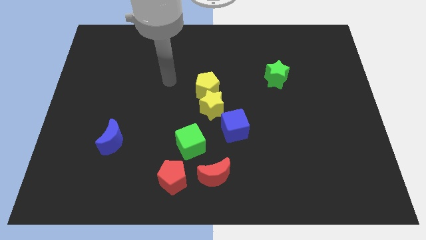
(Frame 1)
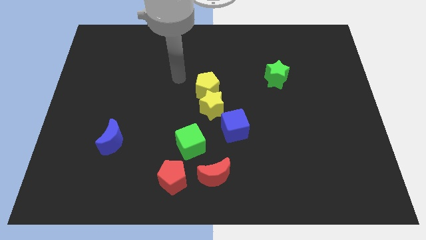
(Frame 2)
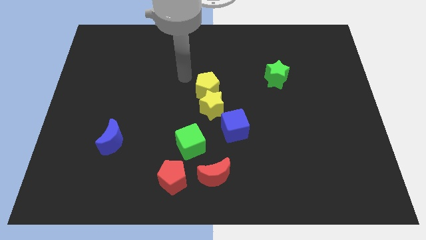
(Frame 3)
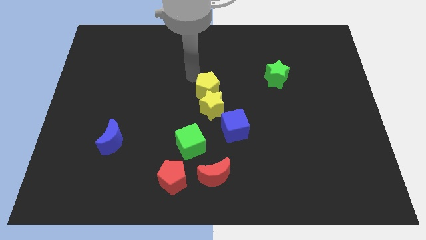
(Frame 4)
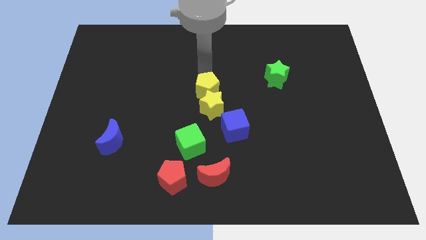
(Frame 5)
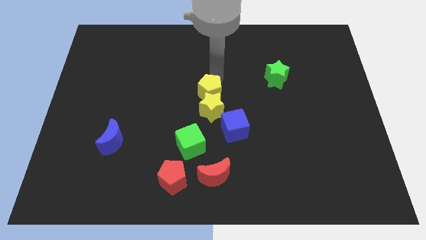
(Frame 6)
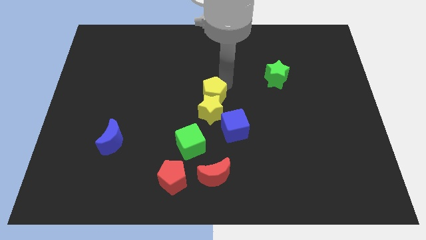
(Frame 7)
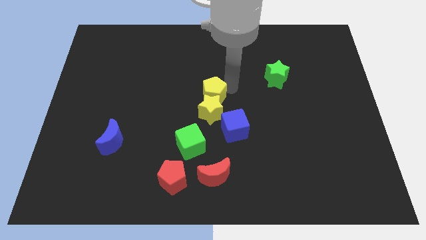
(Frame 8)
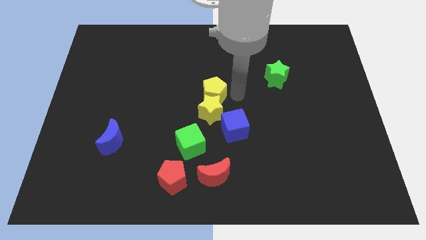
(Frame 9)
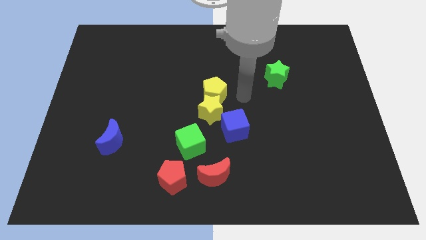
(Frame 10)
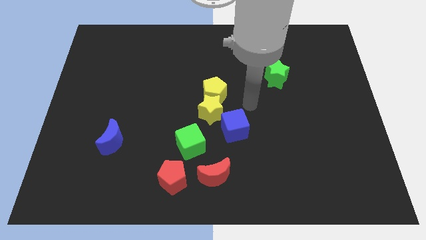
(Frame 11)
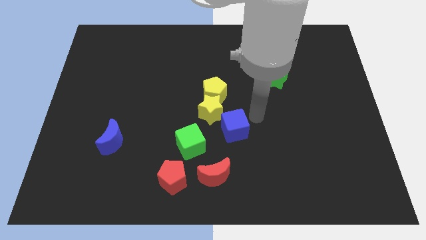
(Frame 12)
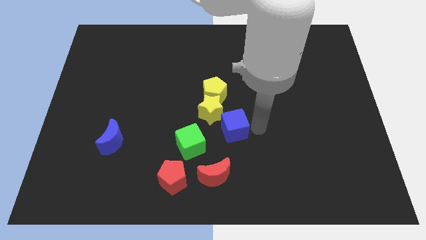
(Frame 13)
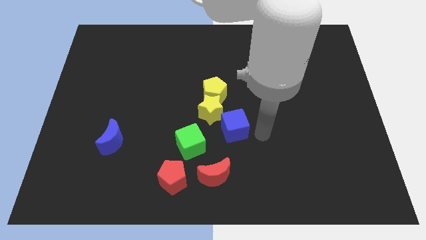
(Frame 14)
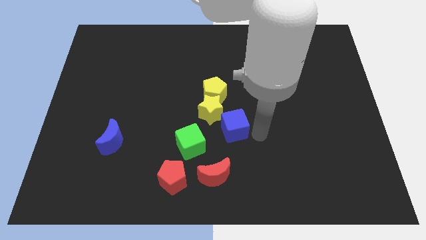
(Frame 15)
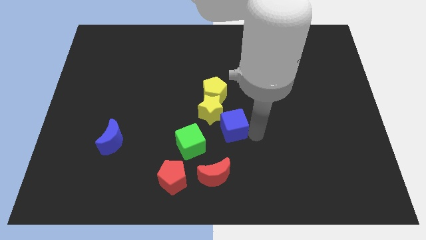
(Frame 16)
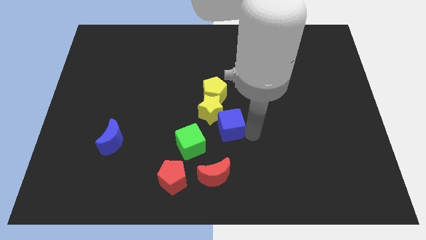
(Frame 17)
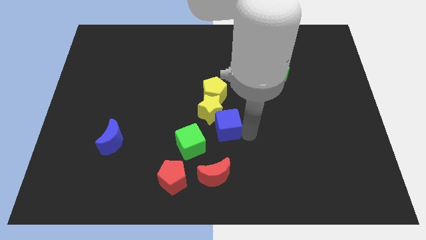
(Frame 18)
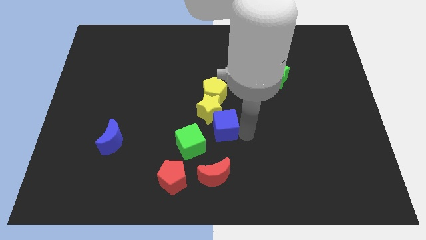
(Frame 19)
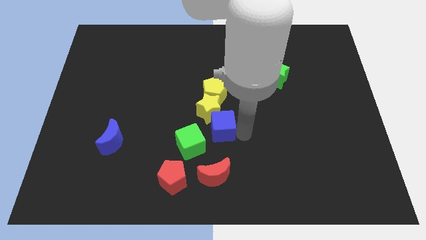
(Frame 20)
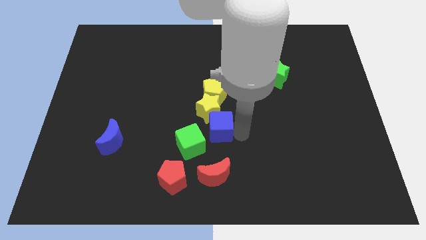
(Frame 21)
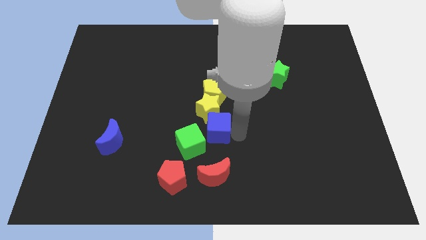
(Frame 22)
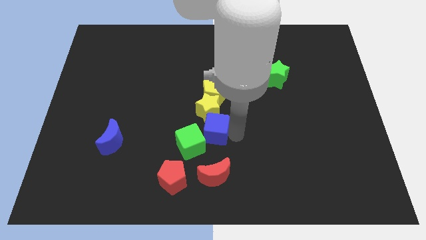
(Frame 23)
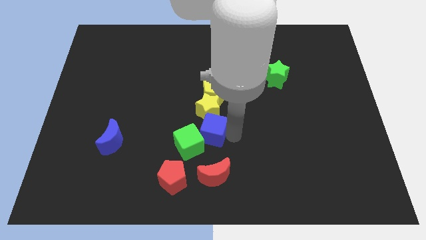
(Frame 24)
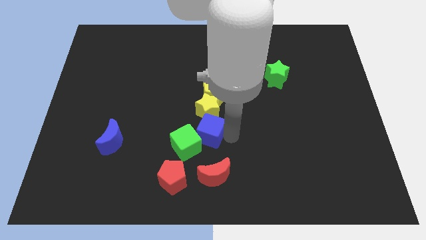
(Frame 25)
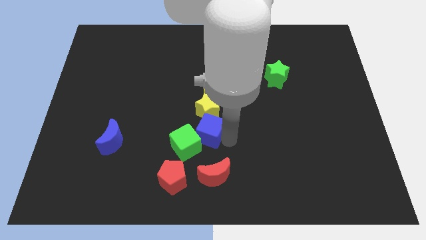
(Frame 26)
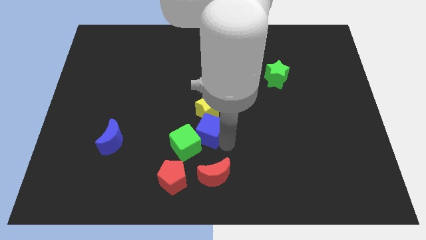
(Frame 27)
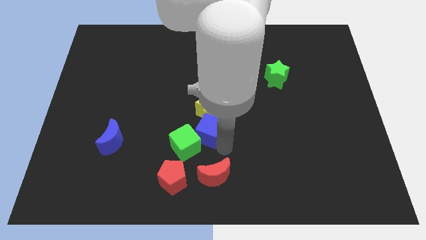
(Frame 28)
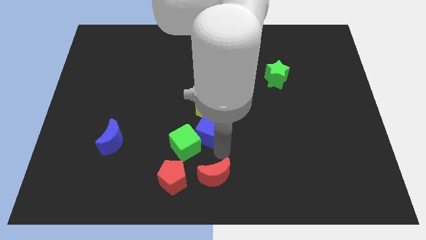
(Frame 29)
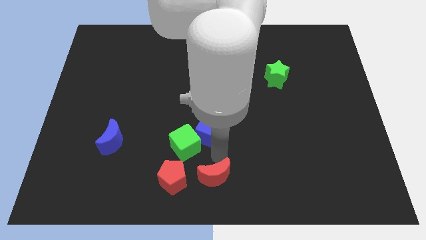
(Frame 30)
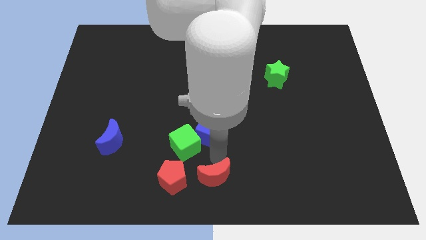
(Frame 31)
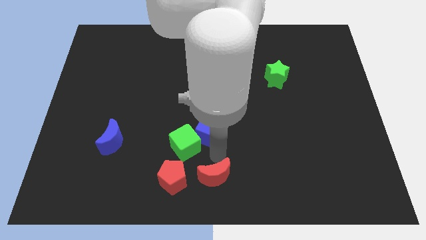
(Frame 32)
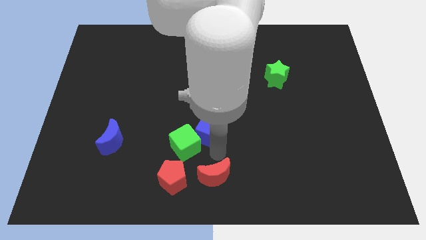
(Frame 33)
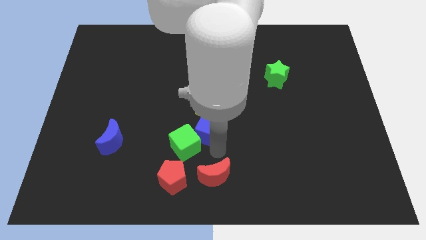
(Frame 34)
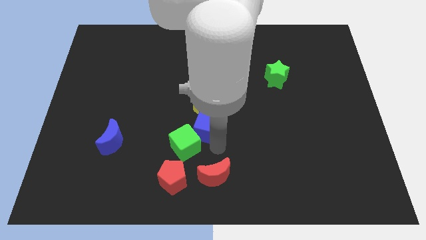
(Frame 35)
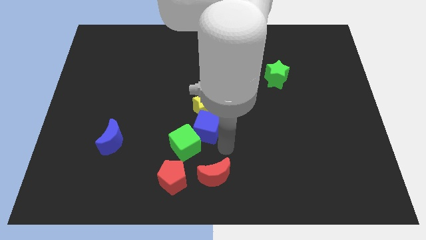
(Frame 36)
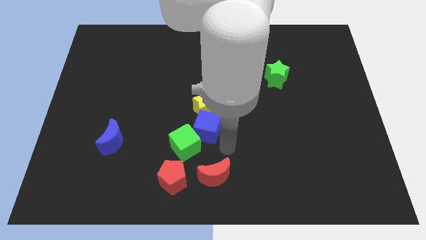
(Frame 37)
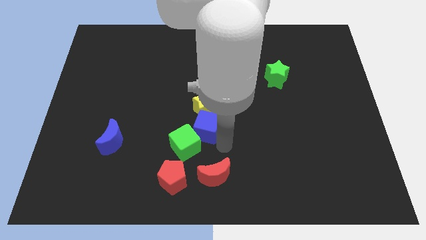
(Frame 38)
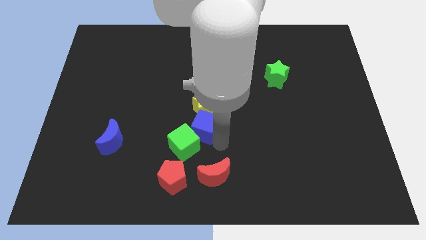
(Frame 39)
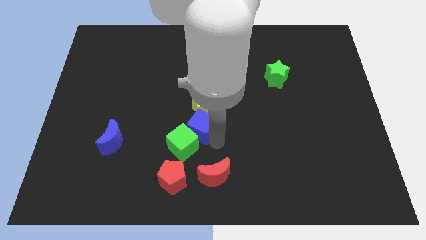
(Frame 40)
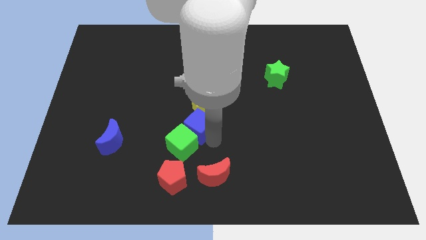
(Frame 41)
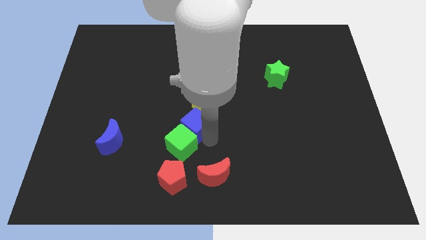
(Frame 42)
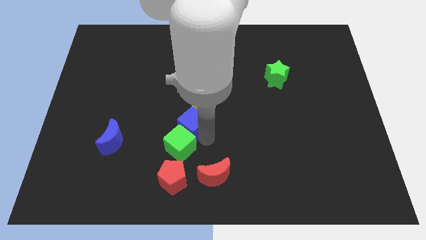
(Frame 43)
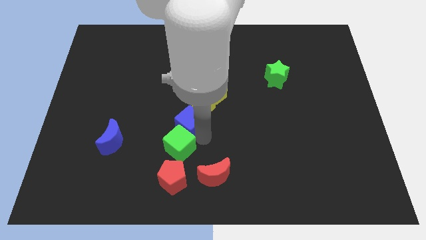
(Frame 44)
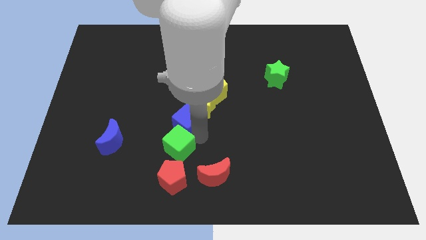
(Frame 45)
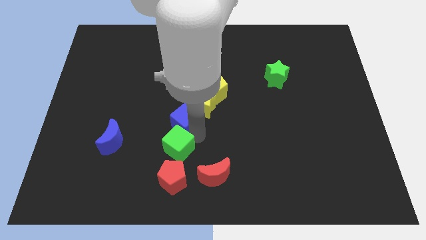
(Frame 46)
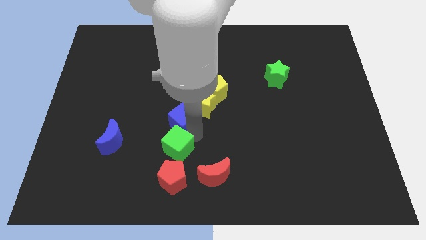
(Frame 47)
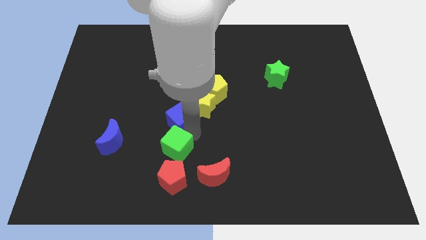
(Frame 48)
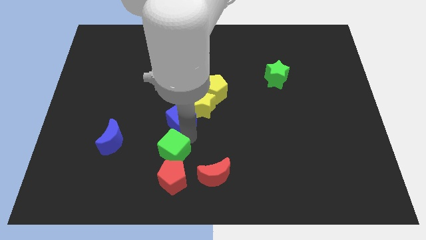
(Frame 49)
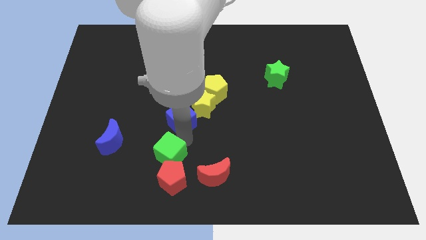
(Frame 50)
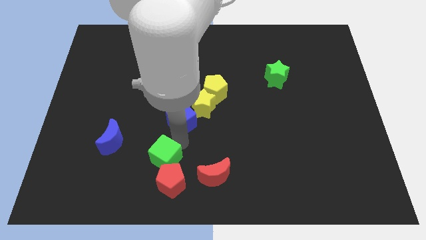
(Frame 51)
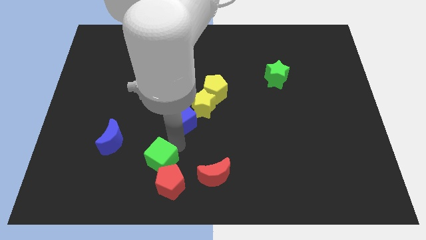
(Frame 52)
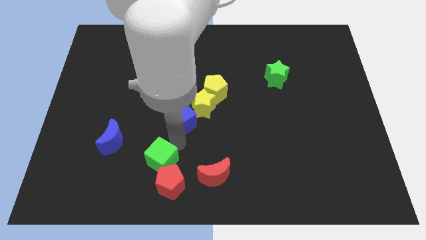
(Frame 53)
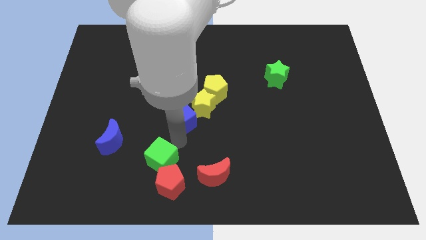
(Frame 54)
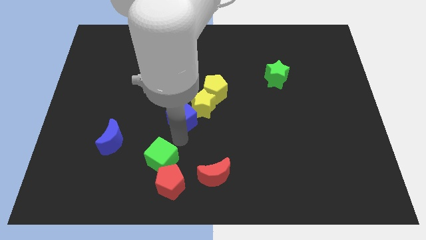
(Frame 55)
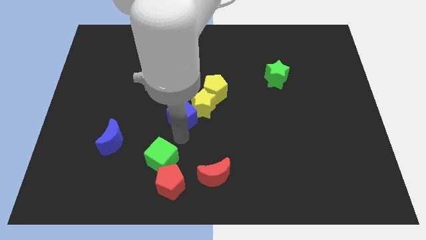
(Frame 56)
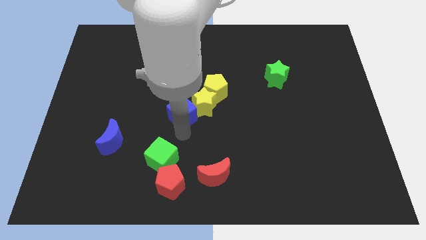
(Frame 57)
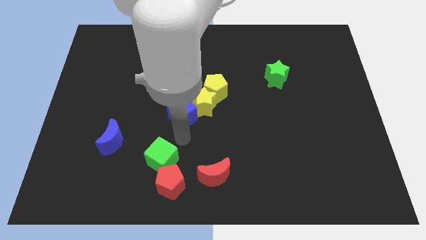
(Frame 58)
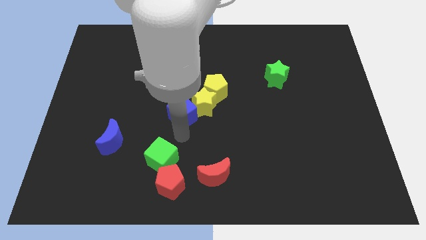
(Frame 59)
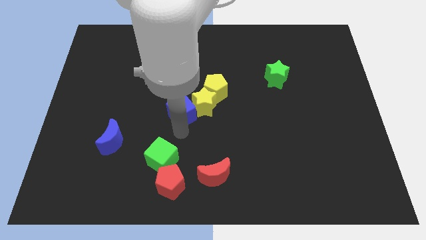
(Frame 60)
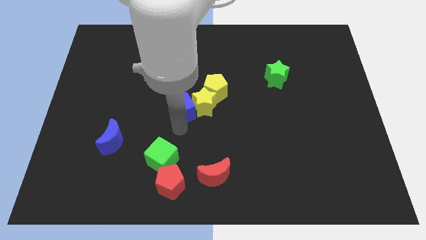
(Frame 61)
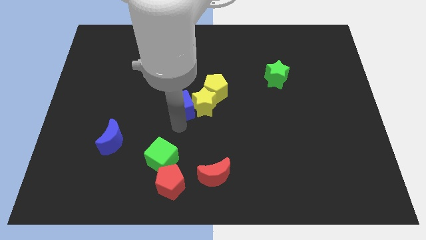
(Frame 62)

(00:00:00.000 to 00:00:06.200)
push the blue cube diagonally up and to the left of the yellow star

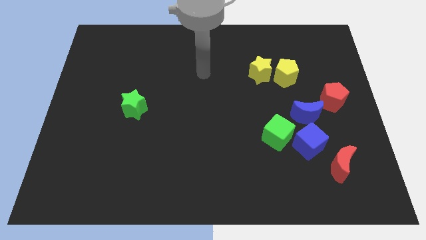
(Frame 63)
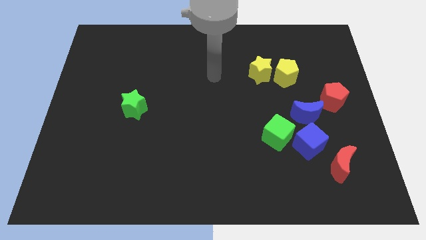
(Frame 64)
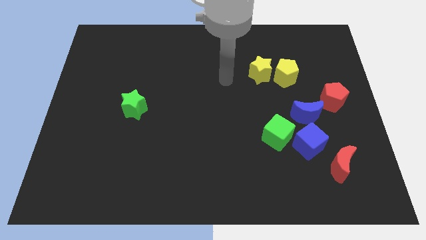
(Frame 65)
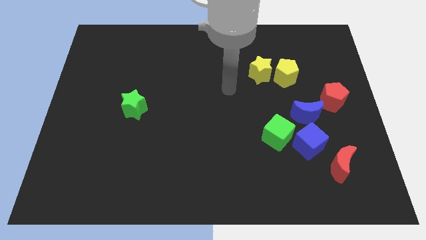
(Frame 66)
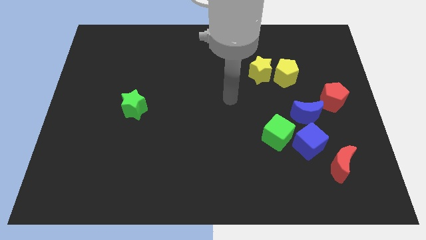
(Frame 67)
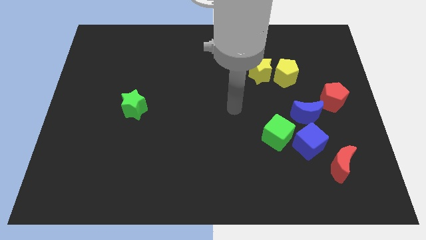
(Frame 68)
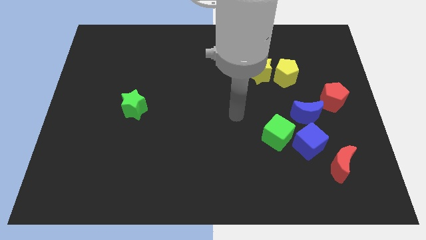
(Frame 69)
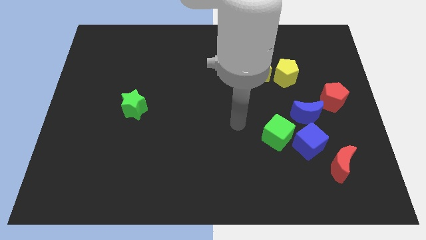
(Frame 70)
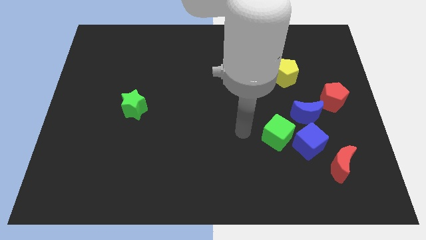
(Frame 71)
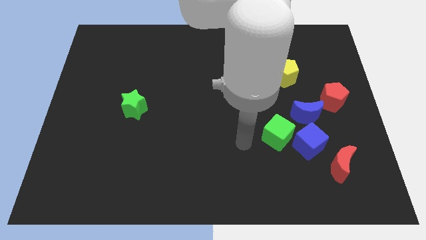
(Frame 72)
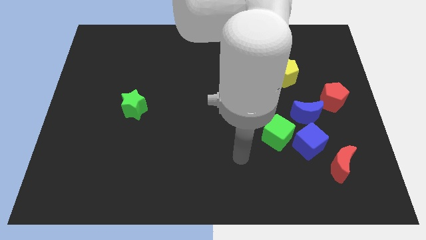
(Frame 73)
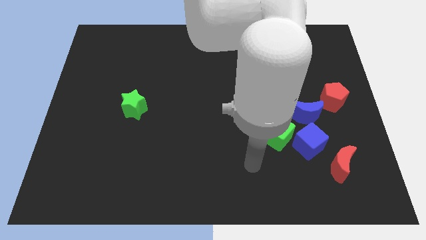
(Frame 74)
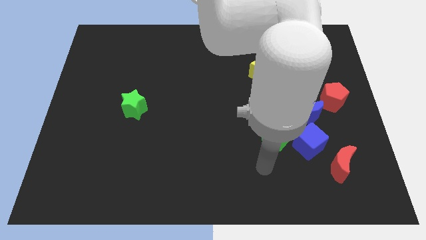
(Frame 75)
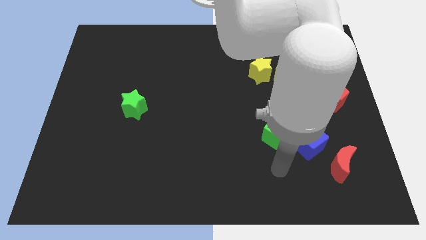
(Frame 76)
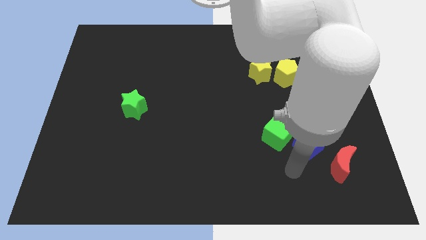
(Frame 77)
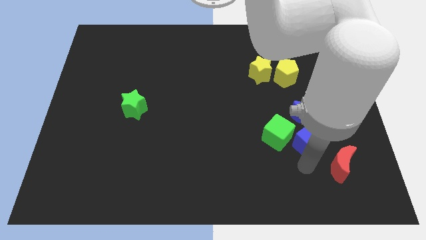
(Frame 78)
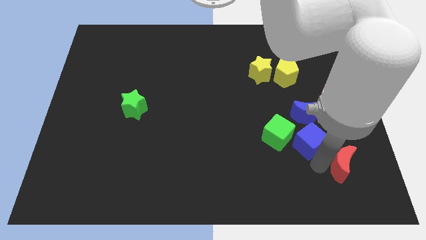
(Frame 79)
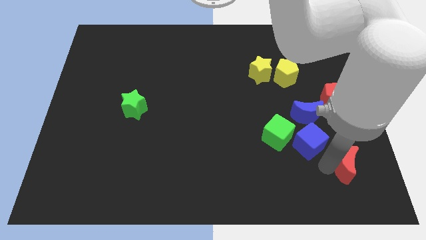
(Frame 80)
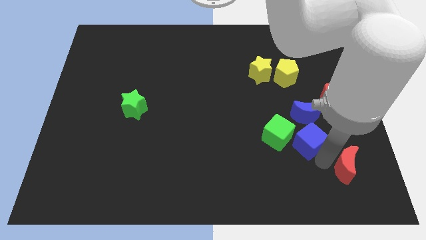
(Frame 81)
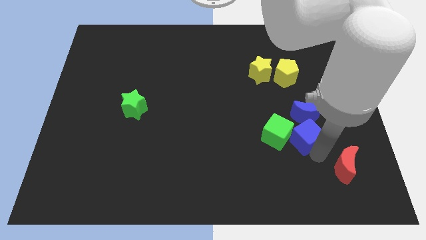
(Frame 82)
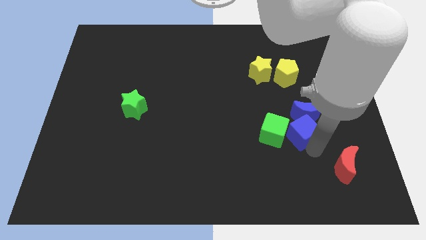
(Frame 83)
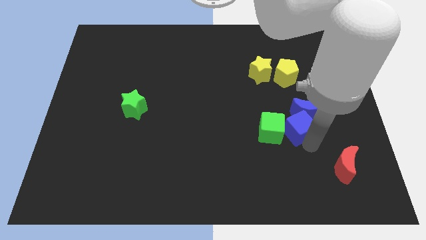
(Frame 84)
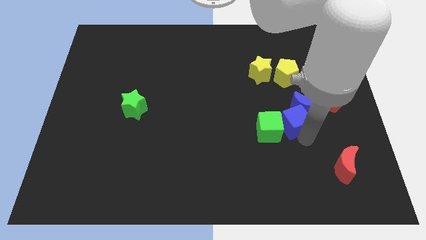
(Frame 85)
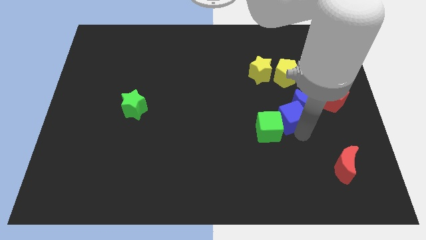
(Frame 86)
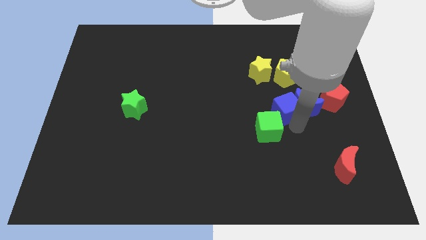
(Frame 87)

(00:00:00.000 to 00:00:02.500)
put the blue cube above the green cube
